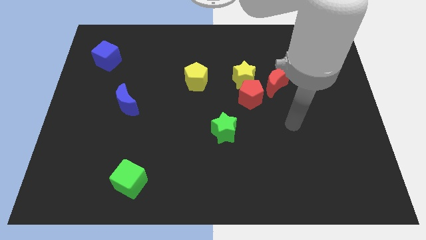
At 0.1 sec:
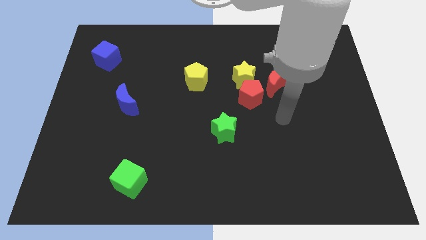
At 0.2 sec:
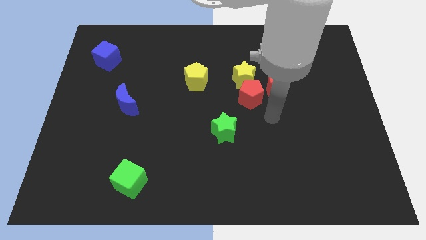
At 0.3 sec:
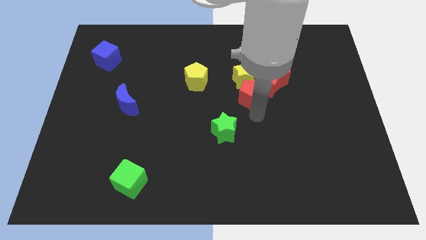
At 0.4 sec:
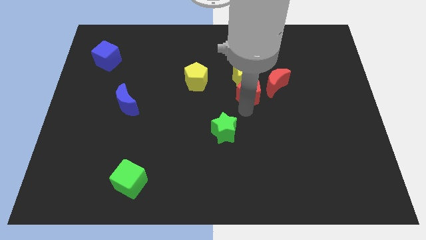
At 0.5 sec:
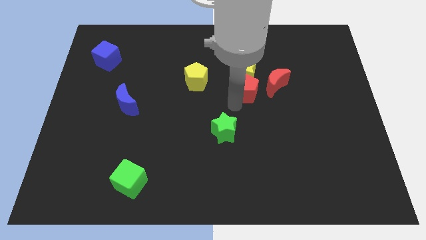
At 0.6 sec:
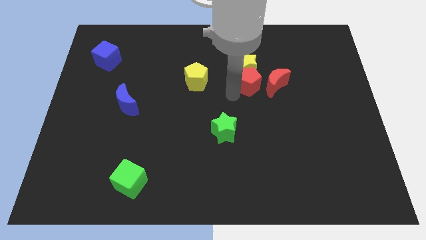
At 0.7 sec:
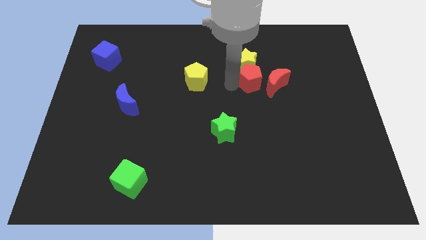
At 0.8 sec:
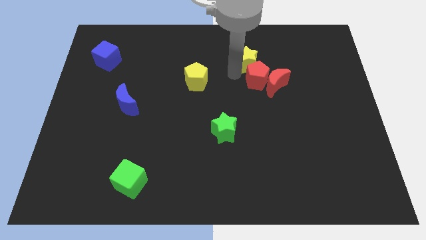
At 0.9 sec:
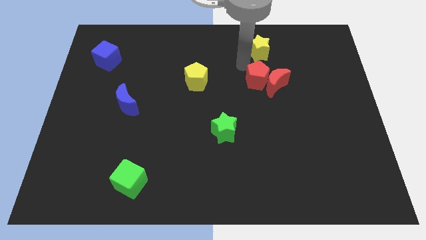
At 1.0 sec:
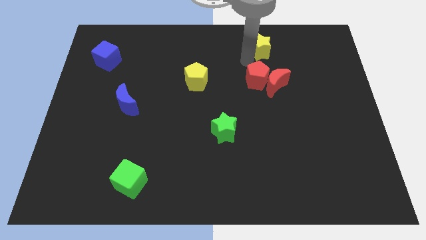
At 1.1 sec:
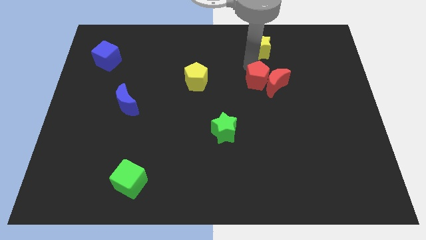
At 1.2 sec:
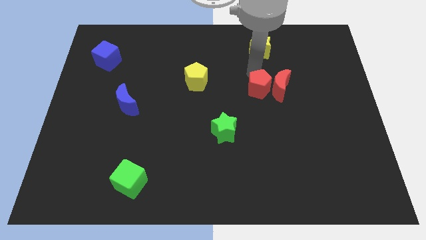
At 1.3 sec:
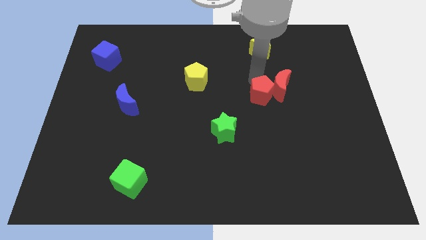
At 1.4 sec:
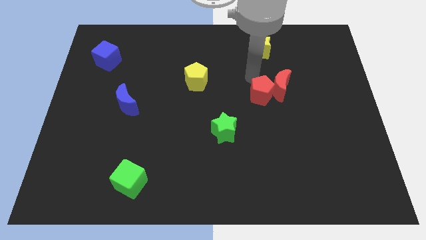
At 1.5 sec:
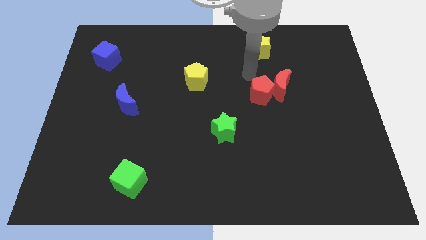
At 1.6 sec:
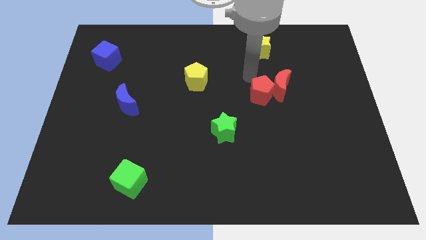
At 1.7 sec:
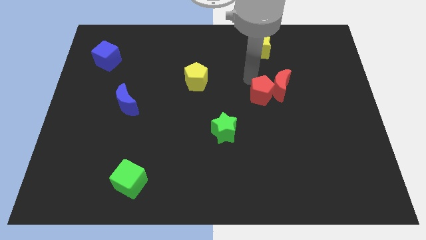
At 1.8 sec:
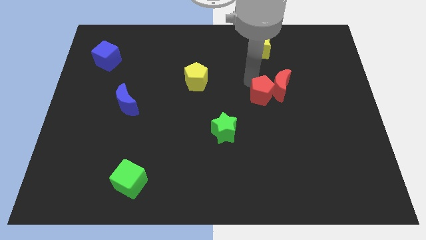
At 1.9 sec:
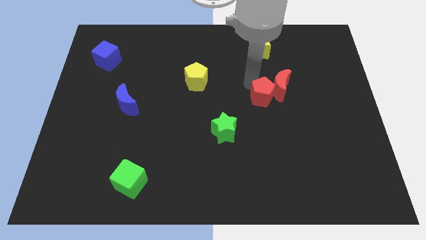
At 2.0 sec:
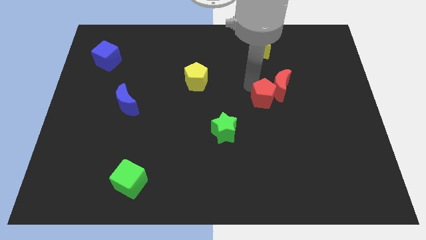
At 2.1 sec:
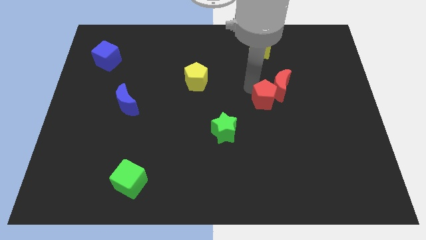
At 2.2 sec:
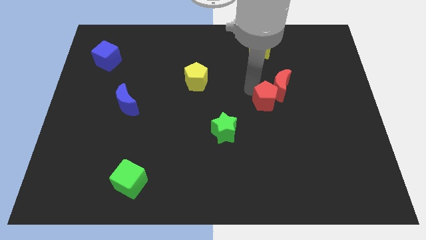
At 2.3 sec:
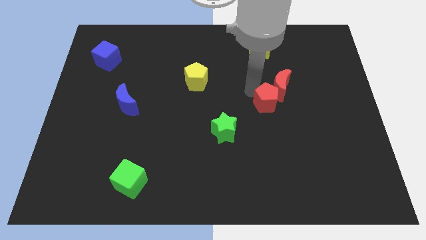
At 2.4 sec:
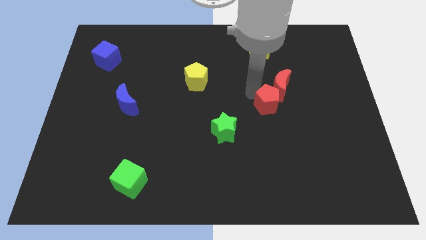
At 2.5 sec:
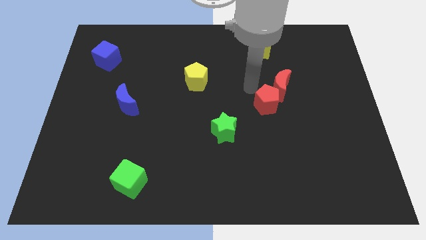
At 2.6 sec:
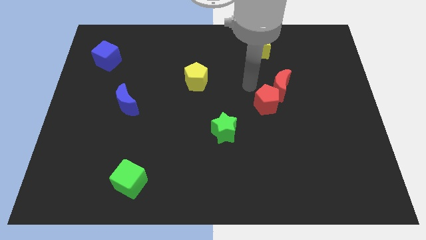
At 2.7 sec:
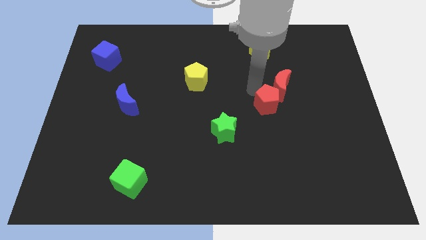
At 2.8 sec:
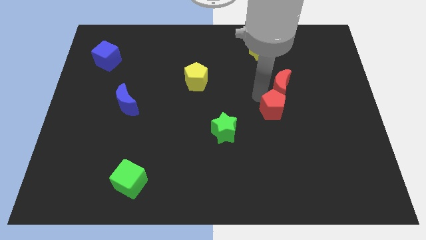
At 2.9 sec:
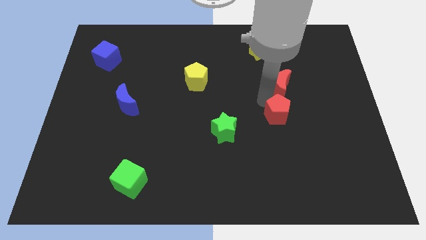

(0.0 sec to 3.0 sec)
slide the red pentagon slightly down and to the right diagonally

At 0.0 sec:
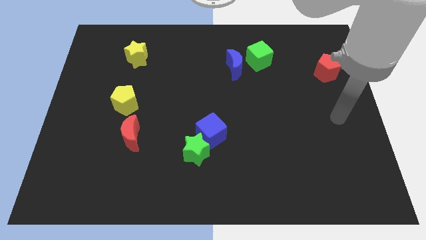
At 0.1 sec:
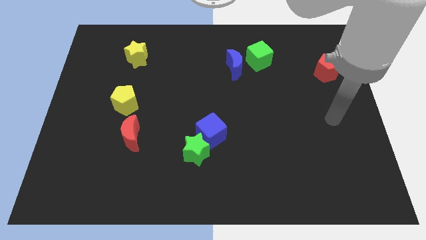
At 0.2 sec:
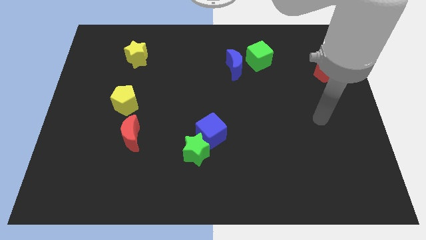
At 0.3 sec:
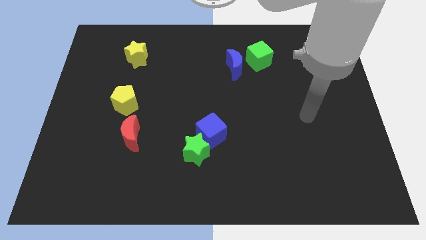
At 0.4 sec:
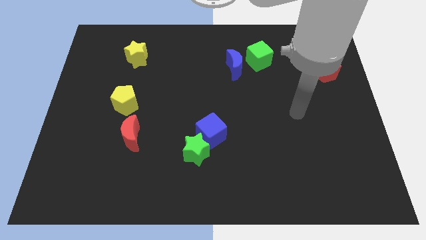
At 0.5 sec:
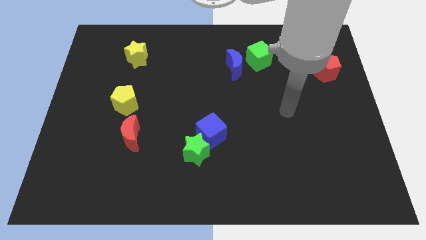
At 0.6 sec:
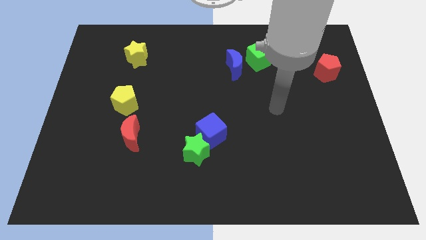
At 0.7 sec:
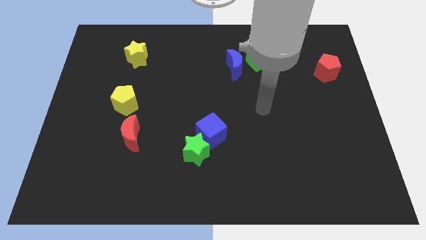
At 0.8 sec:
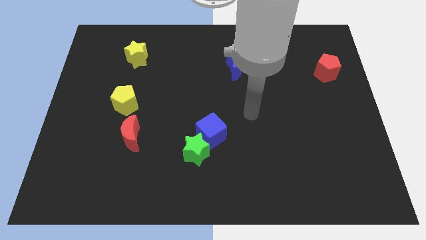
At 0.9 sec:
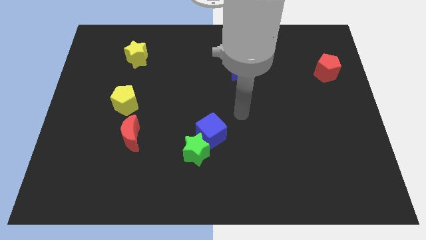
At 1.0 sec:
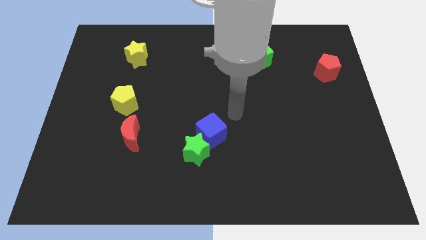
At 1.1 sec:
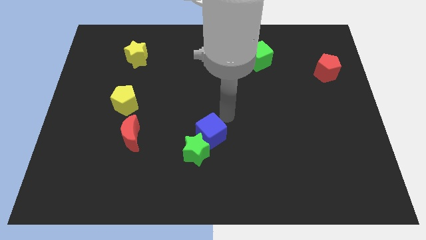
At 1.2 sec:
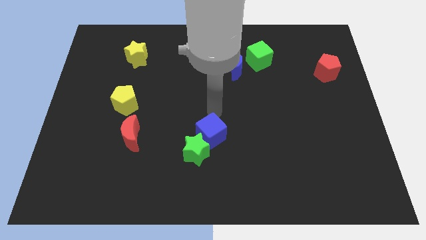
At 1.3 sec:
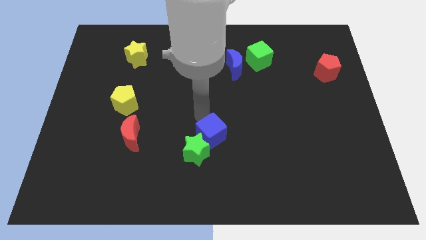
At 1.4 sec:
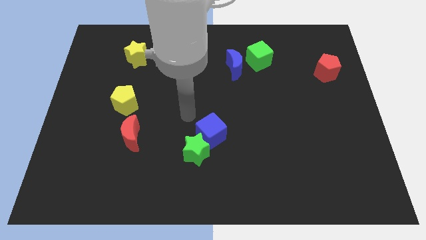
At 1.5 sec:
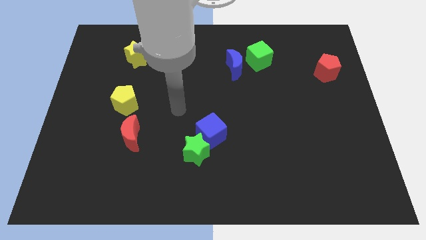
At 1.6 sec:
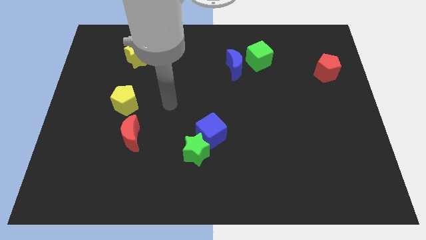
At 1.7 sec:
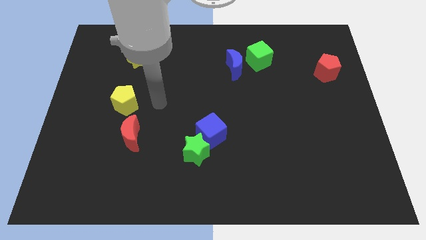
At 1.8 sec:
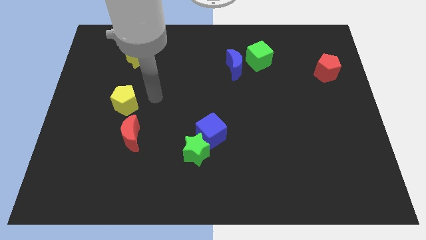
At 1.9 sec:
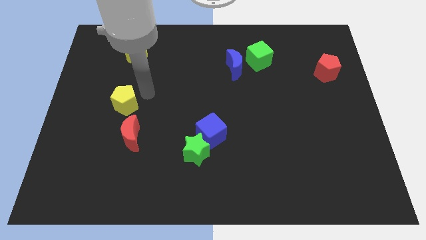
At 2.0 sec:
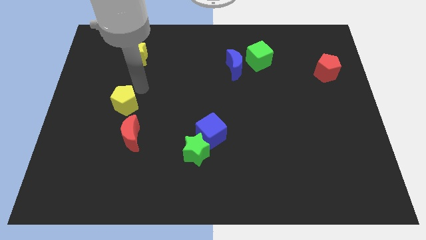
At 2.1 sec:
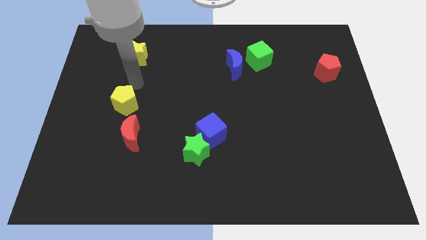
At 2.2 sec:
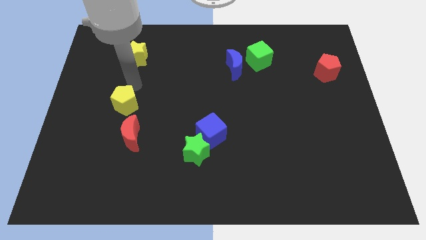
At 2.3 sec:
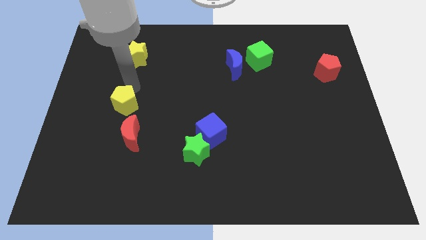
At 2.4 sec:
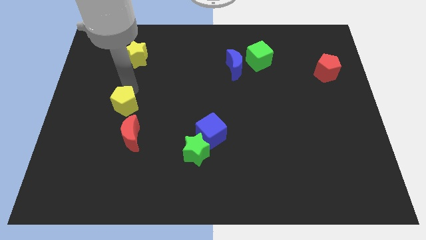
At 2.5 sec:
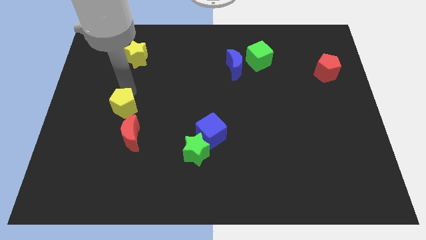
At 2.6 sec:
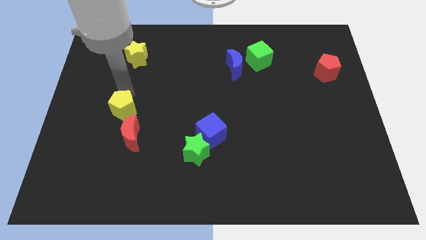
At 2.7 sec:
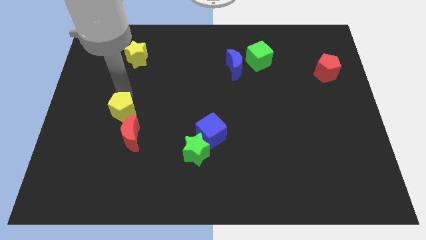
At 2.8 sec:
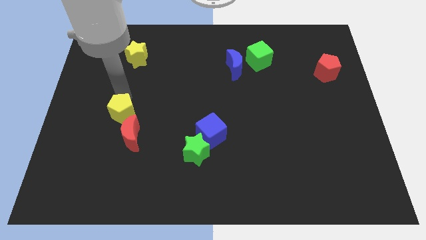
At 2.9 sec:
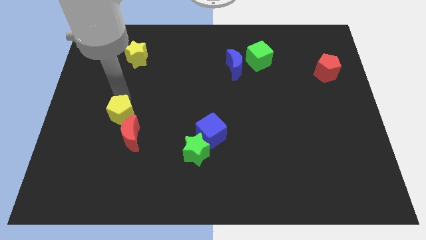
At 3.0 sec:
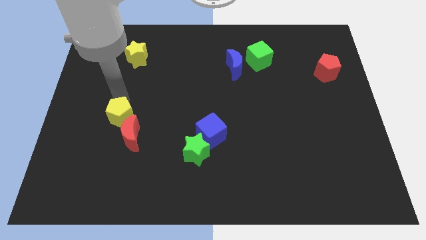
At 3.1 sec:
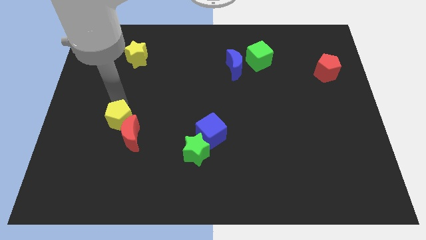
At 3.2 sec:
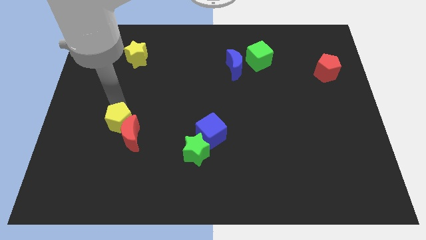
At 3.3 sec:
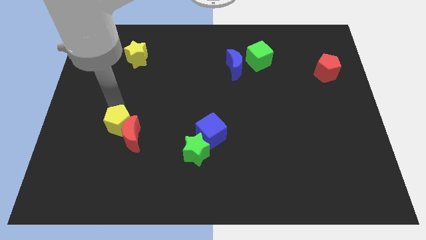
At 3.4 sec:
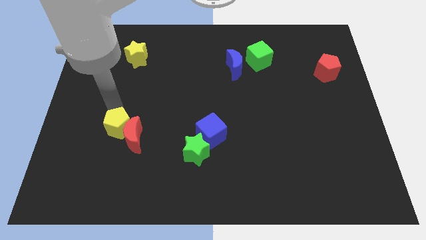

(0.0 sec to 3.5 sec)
push the yellow pentagon a bit down

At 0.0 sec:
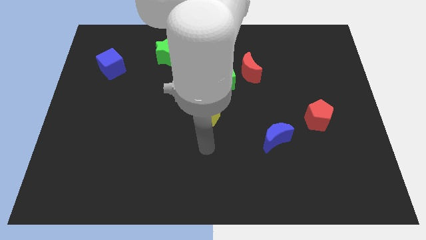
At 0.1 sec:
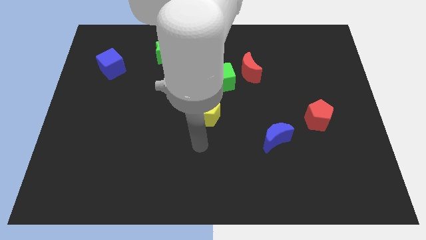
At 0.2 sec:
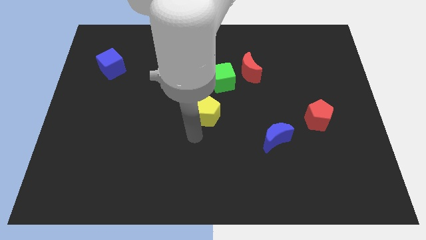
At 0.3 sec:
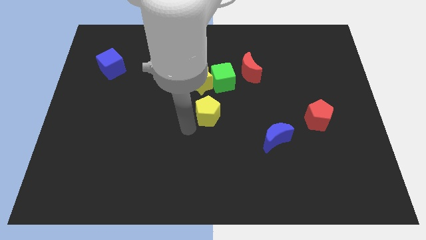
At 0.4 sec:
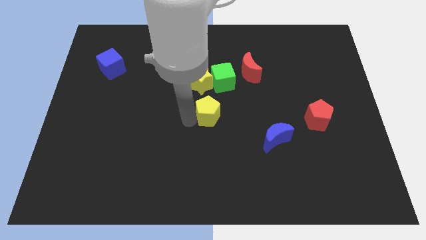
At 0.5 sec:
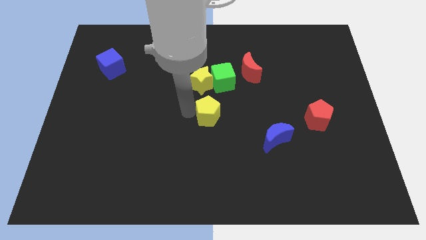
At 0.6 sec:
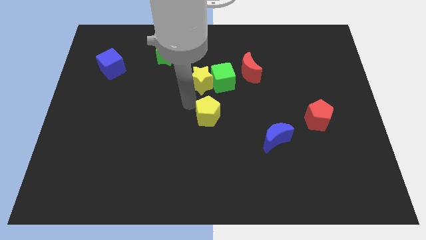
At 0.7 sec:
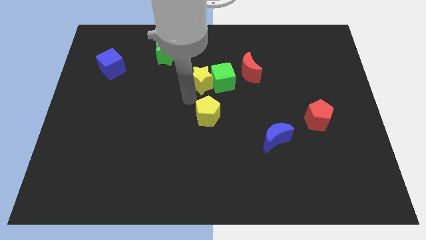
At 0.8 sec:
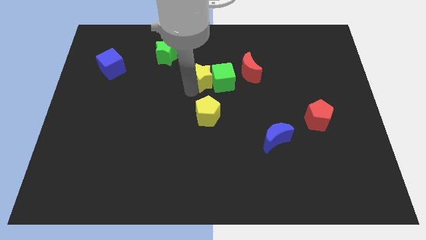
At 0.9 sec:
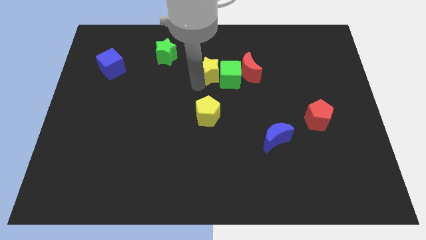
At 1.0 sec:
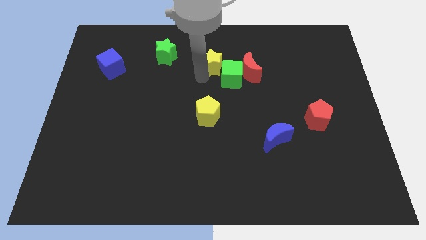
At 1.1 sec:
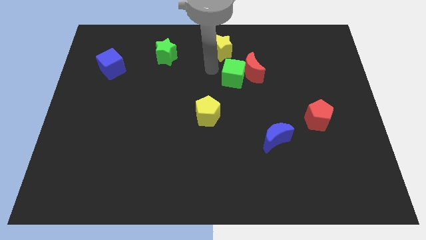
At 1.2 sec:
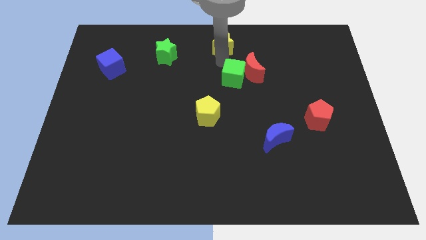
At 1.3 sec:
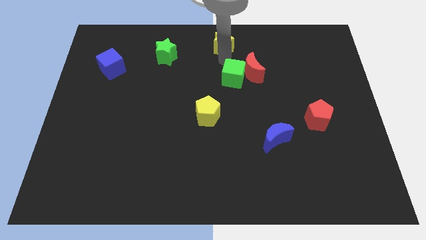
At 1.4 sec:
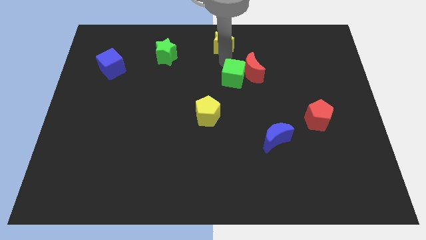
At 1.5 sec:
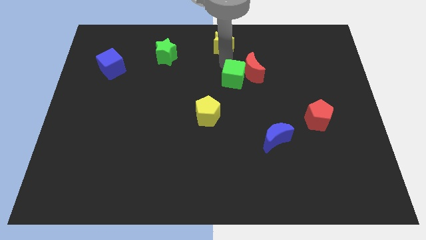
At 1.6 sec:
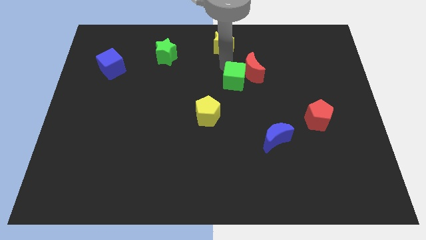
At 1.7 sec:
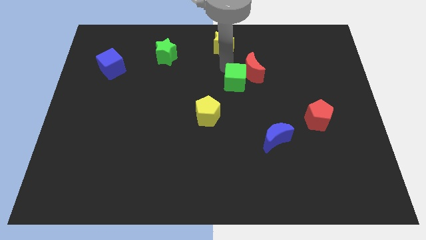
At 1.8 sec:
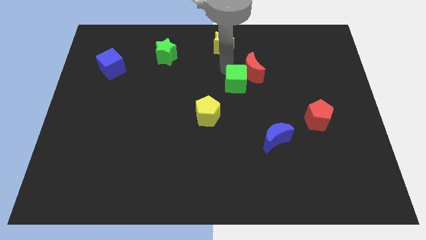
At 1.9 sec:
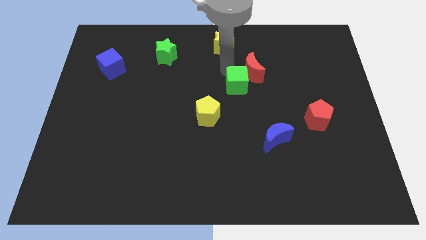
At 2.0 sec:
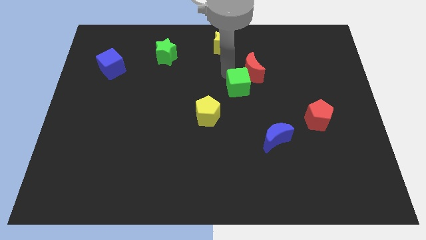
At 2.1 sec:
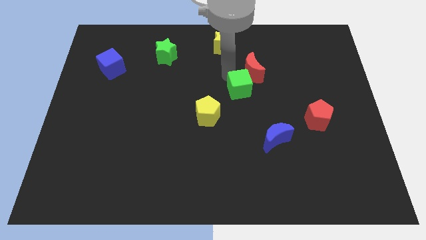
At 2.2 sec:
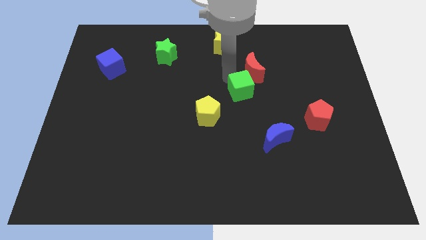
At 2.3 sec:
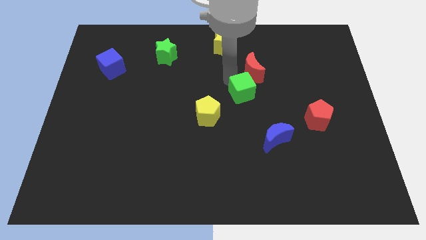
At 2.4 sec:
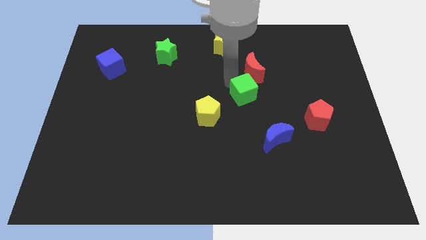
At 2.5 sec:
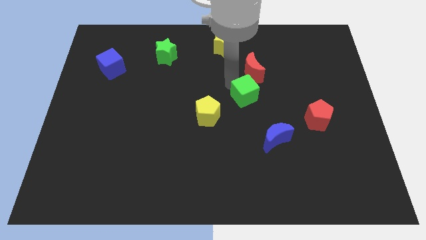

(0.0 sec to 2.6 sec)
slide the green cube a little bit downwards and to the right
